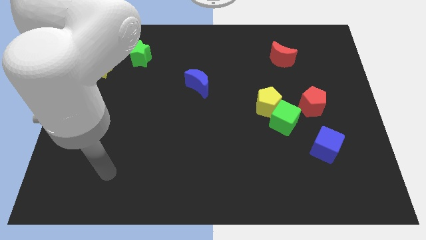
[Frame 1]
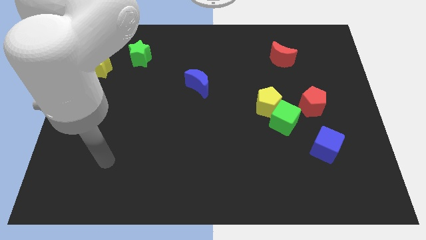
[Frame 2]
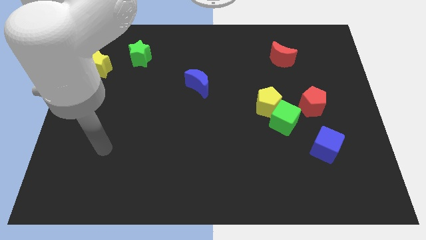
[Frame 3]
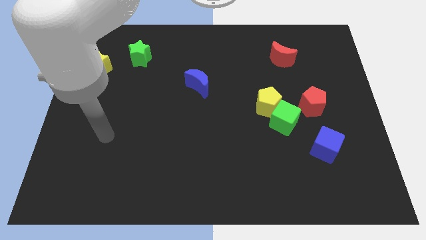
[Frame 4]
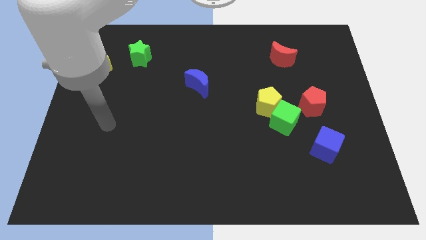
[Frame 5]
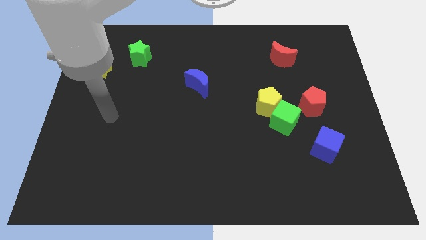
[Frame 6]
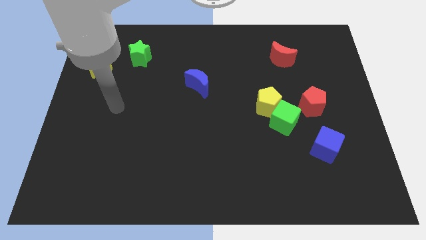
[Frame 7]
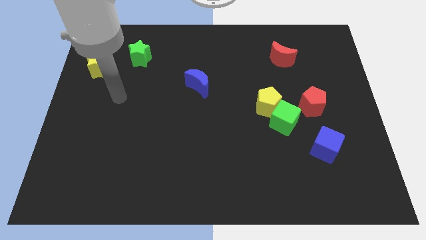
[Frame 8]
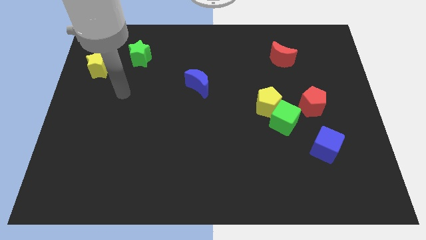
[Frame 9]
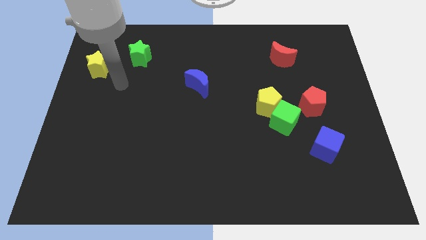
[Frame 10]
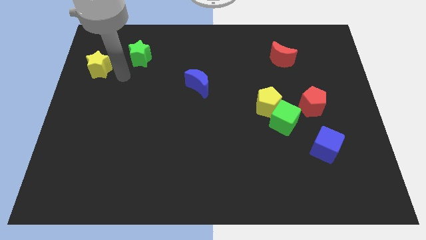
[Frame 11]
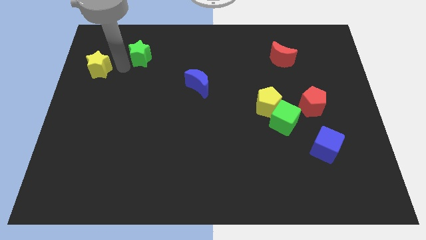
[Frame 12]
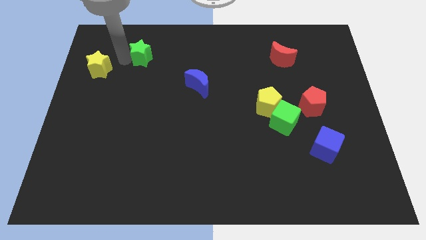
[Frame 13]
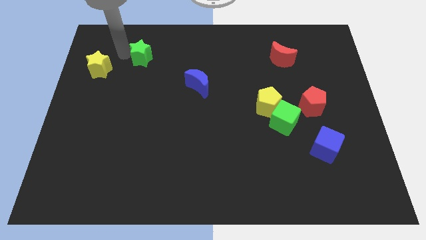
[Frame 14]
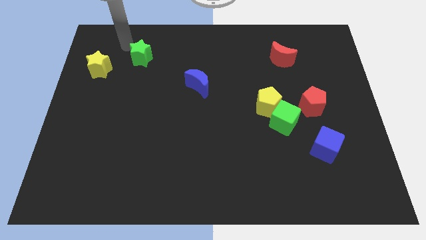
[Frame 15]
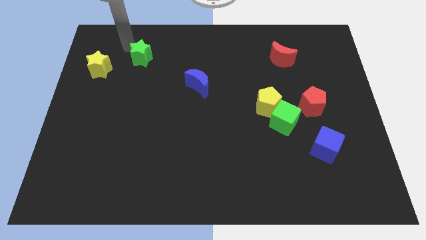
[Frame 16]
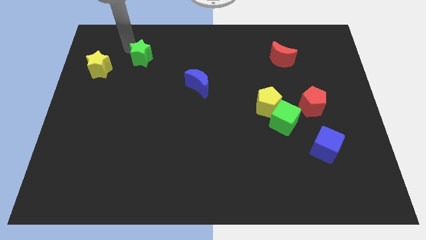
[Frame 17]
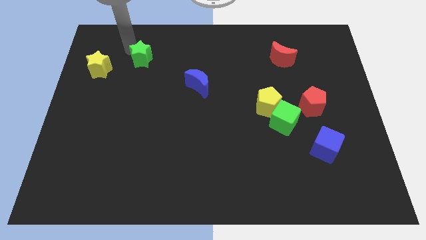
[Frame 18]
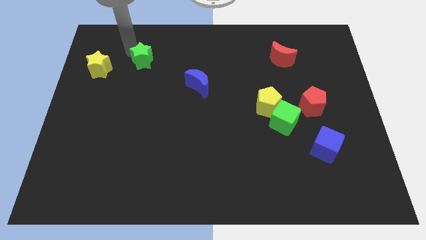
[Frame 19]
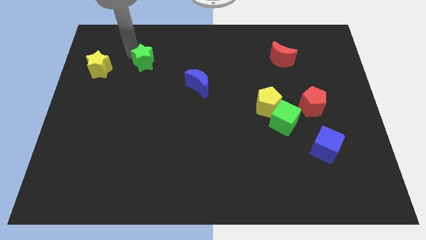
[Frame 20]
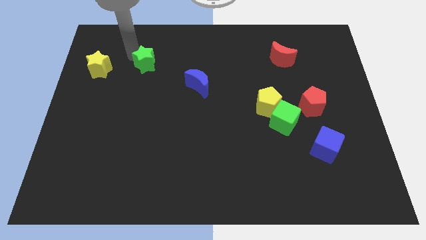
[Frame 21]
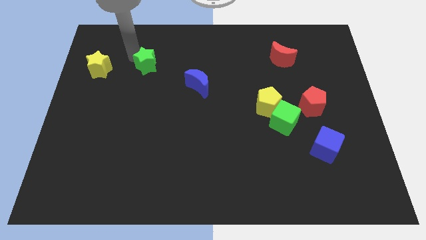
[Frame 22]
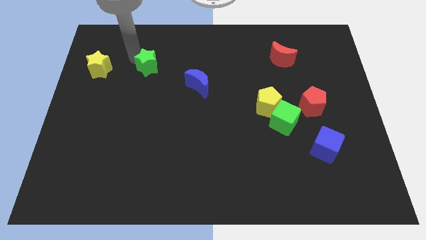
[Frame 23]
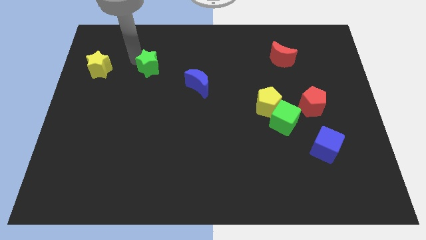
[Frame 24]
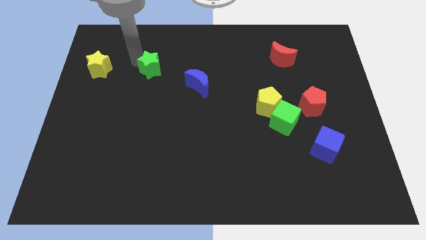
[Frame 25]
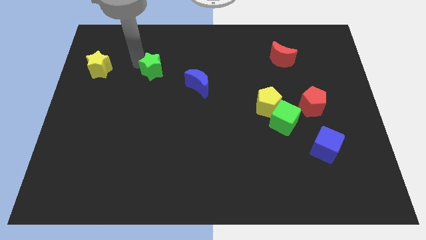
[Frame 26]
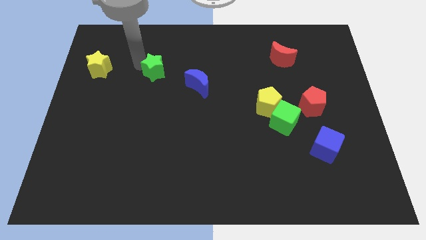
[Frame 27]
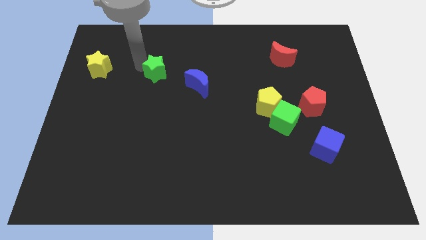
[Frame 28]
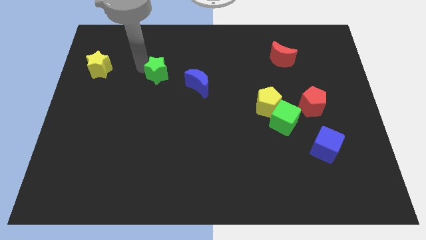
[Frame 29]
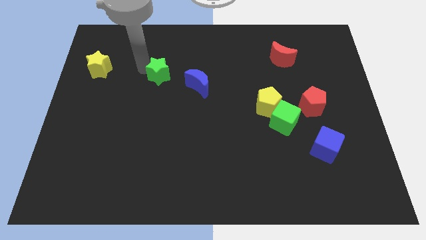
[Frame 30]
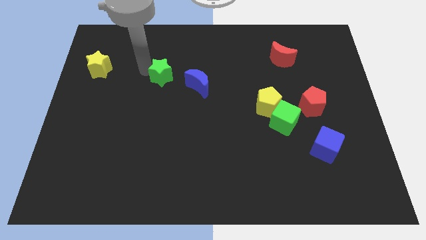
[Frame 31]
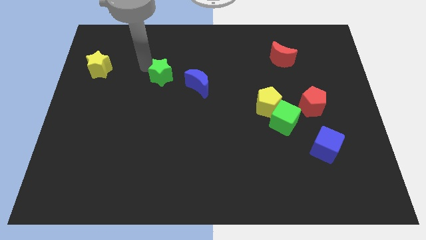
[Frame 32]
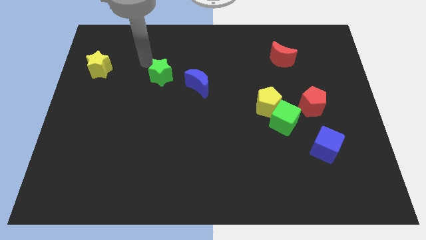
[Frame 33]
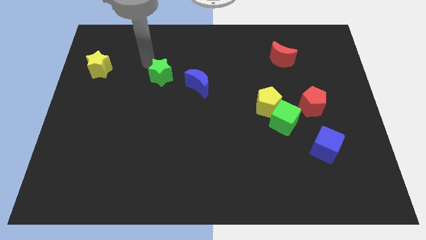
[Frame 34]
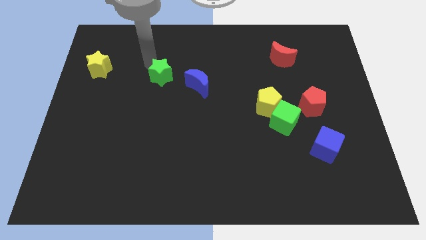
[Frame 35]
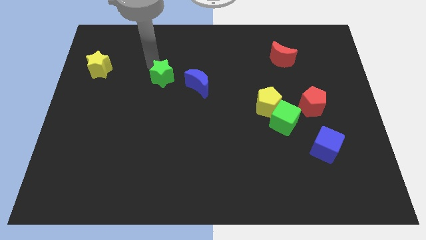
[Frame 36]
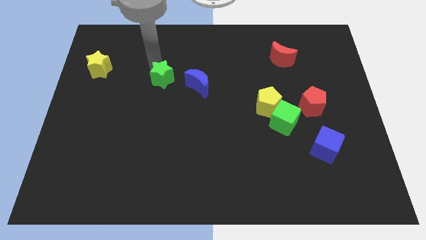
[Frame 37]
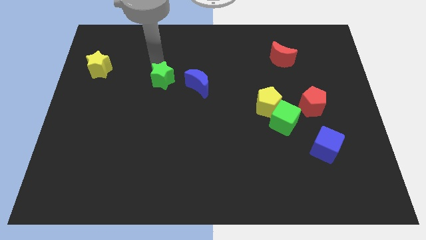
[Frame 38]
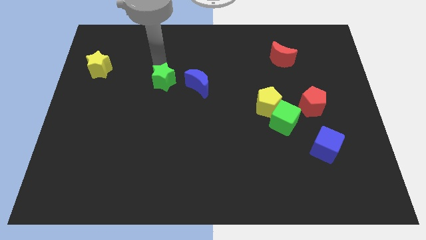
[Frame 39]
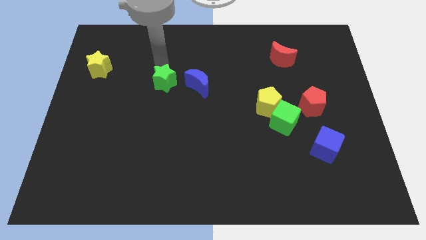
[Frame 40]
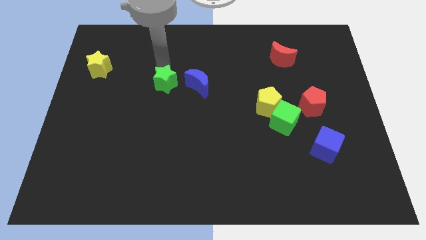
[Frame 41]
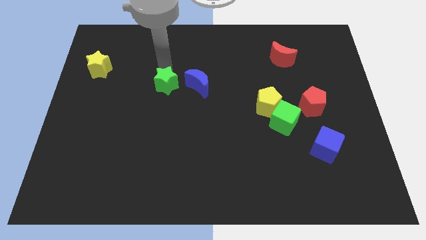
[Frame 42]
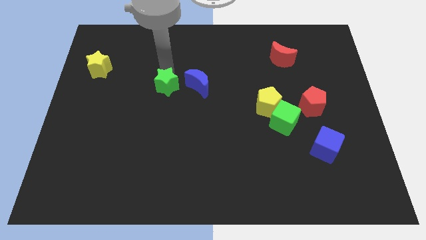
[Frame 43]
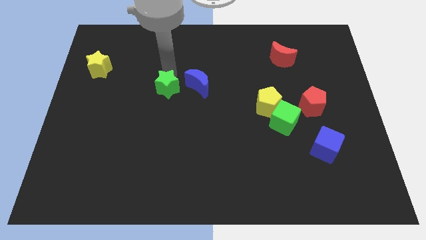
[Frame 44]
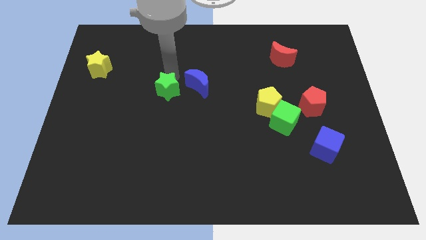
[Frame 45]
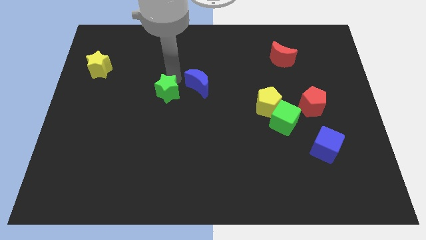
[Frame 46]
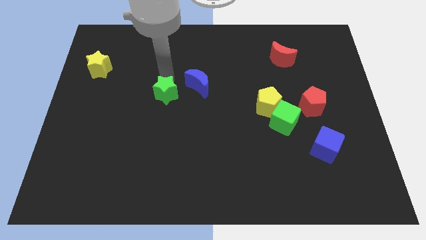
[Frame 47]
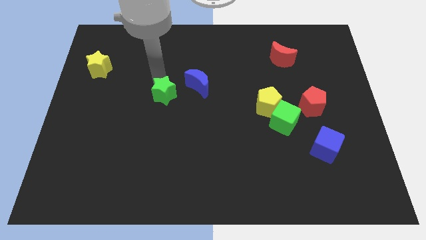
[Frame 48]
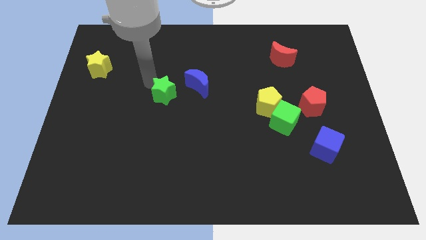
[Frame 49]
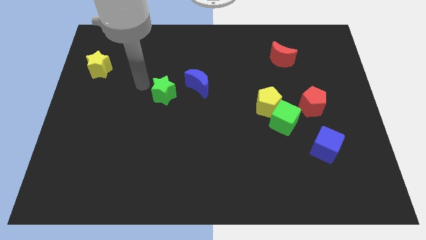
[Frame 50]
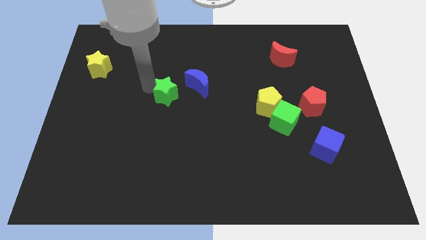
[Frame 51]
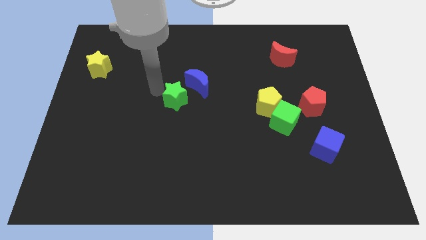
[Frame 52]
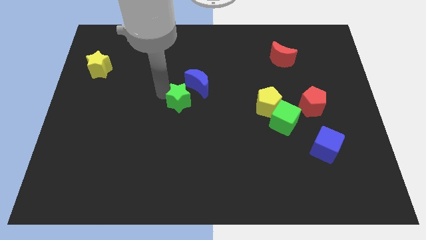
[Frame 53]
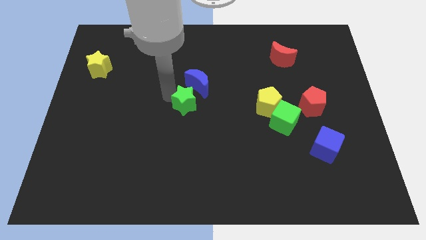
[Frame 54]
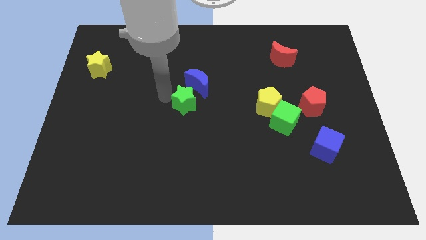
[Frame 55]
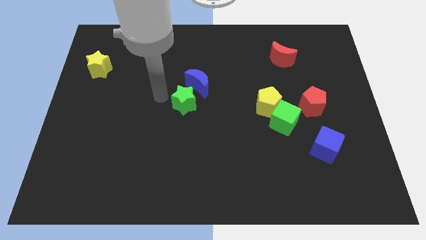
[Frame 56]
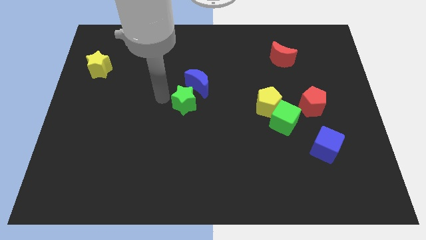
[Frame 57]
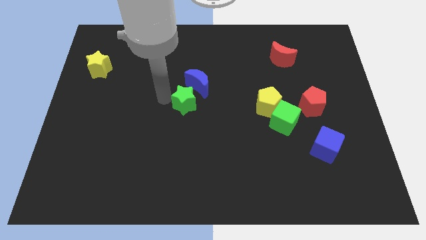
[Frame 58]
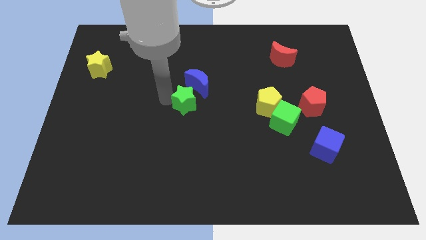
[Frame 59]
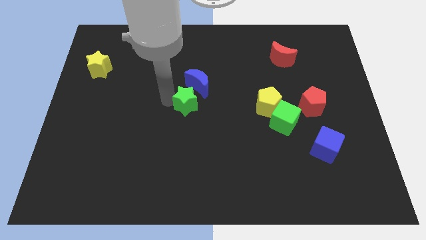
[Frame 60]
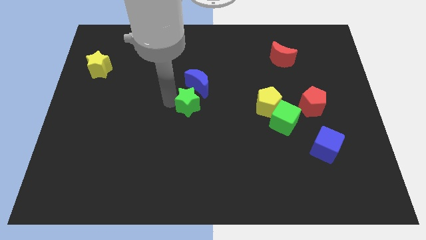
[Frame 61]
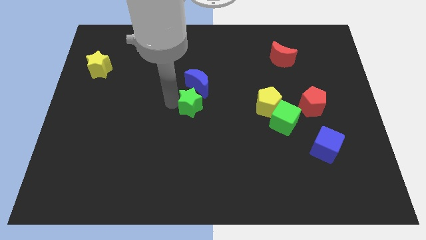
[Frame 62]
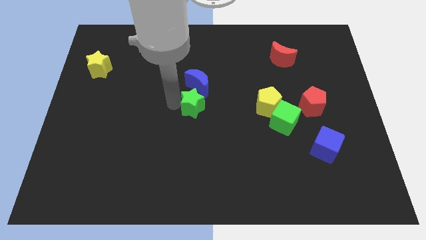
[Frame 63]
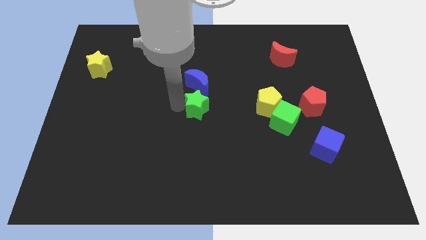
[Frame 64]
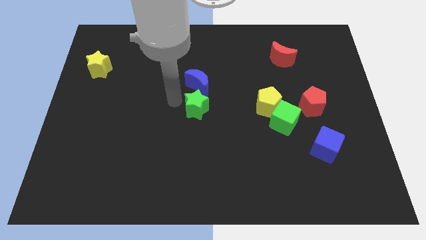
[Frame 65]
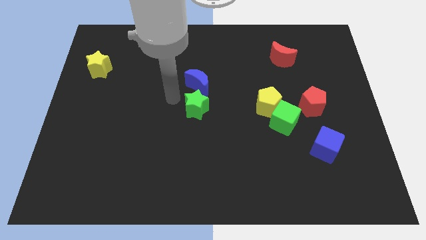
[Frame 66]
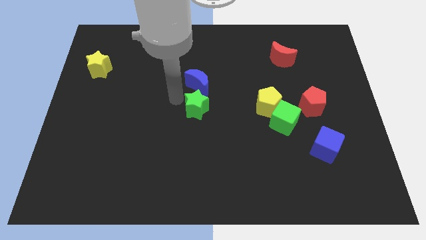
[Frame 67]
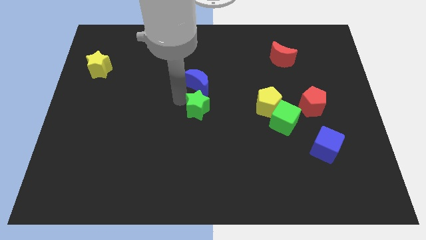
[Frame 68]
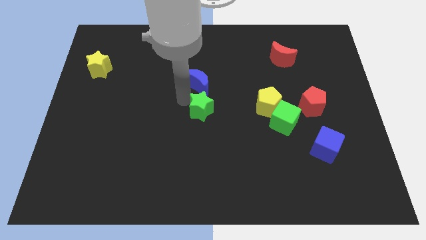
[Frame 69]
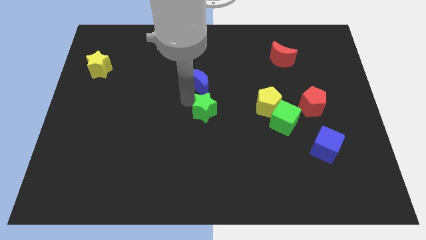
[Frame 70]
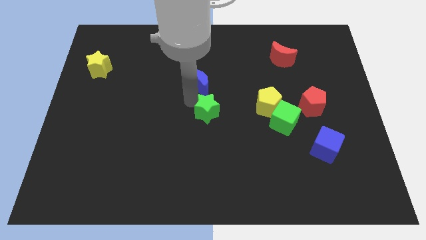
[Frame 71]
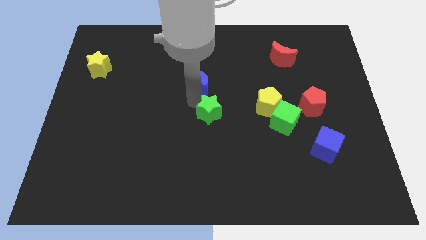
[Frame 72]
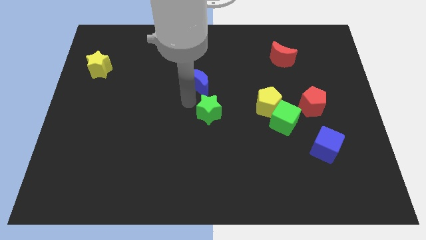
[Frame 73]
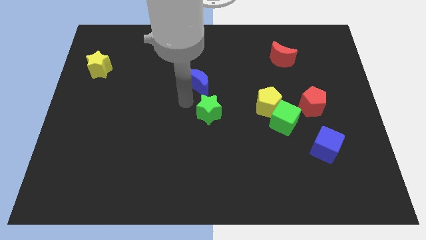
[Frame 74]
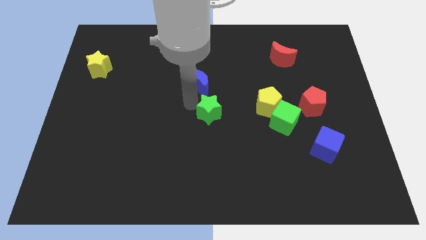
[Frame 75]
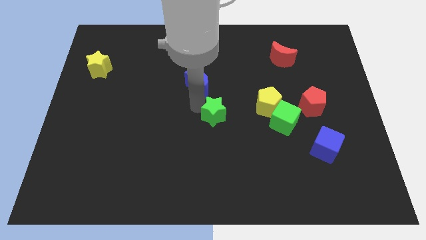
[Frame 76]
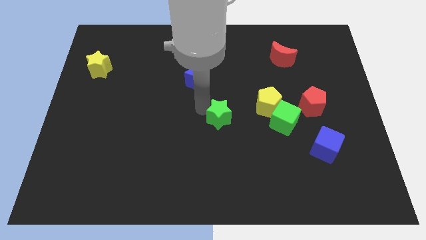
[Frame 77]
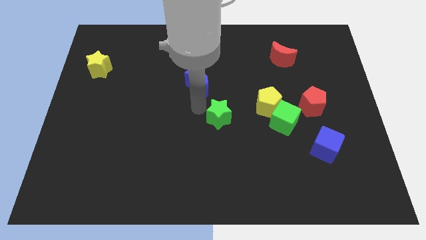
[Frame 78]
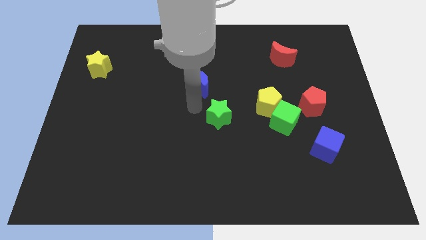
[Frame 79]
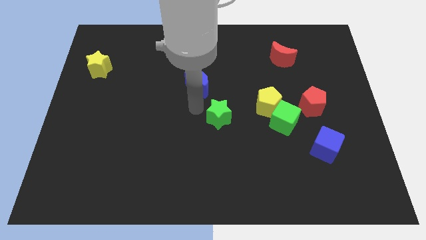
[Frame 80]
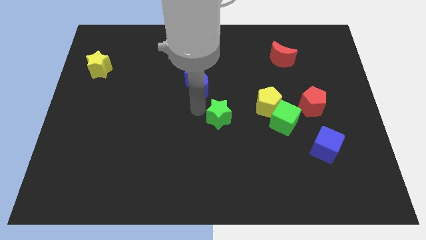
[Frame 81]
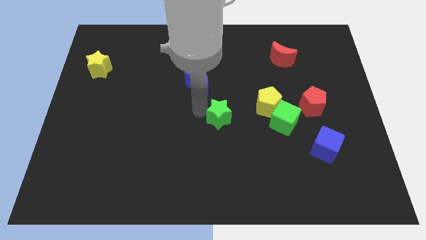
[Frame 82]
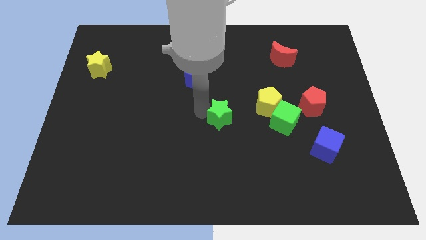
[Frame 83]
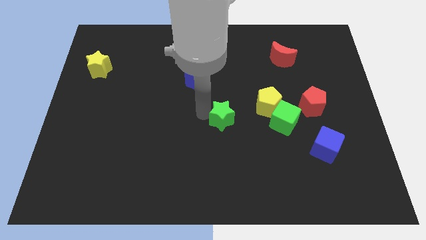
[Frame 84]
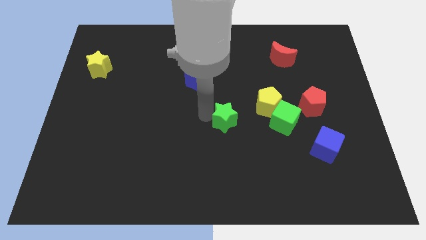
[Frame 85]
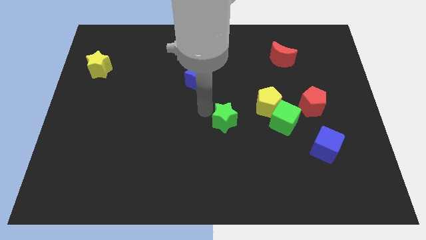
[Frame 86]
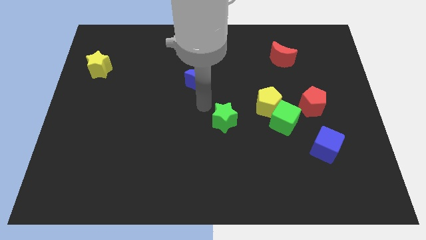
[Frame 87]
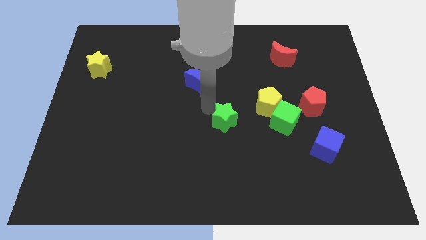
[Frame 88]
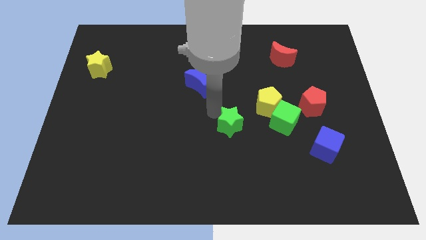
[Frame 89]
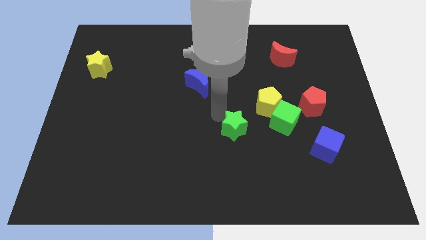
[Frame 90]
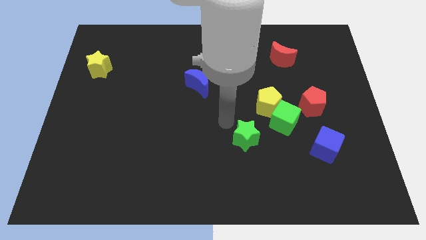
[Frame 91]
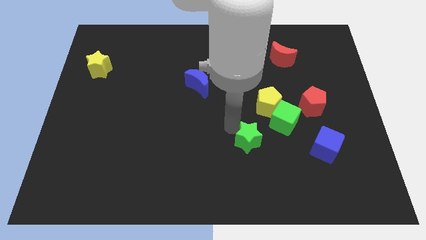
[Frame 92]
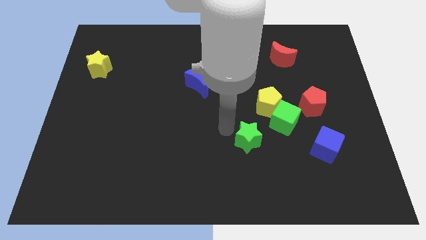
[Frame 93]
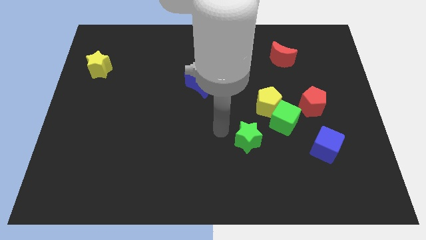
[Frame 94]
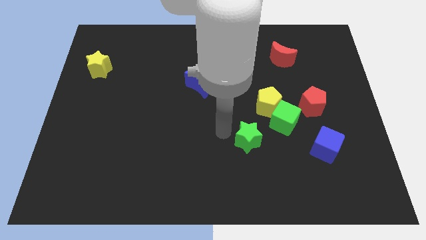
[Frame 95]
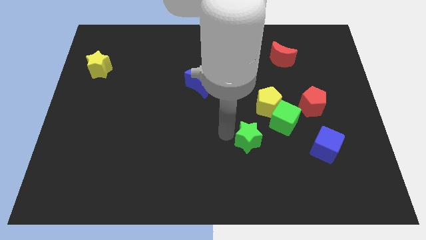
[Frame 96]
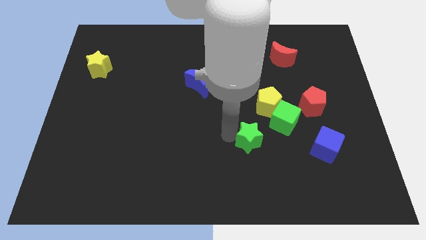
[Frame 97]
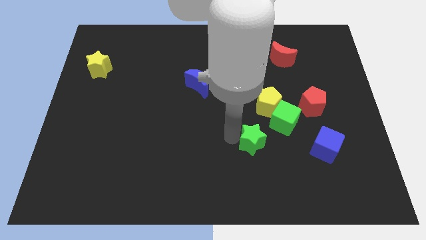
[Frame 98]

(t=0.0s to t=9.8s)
put the green star just left of the blue cube
